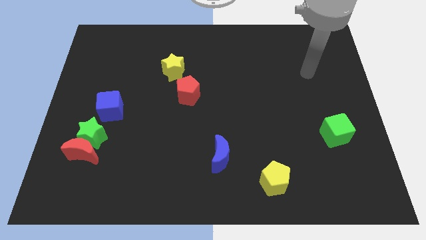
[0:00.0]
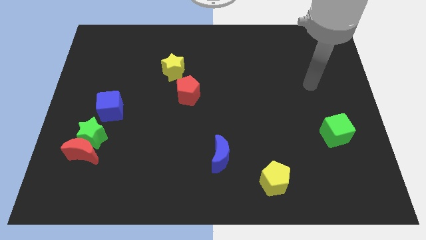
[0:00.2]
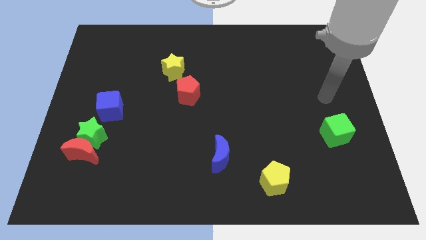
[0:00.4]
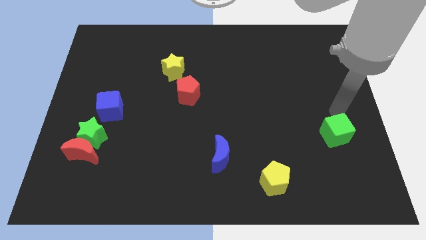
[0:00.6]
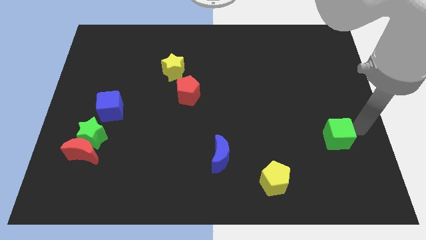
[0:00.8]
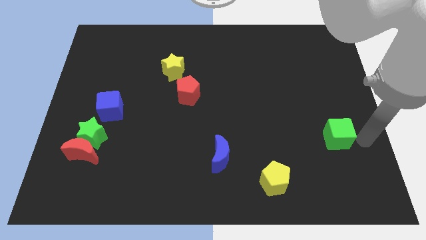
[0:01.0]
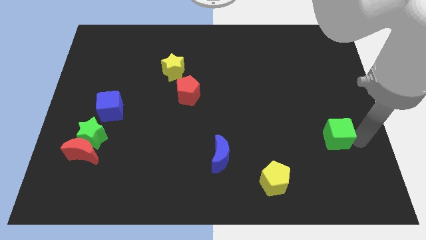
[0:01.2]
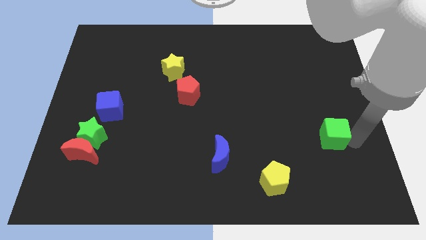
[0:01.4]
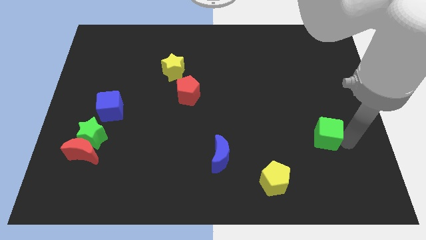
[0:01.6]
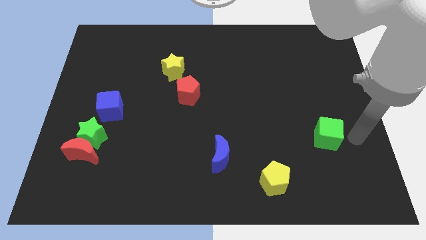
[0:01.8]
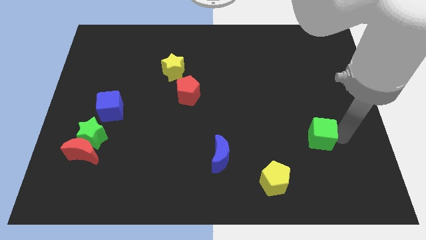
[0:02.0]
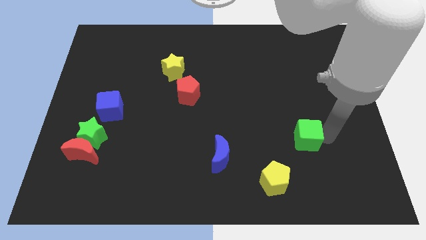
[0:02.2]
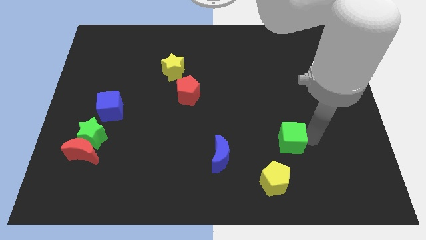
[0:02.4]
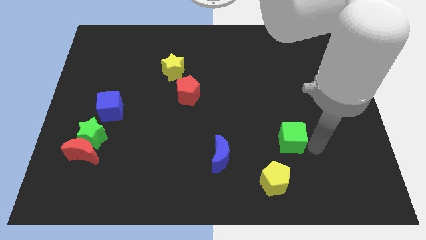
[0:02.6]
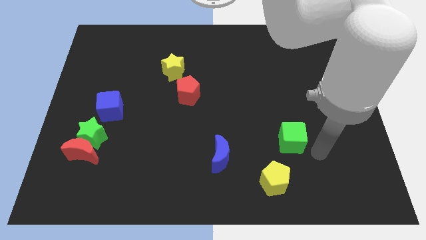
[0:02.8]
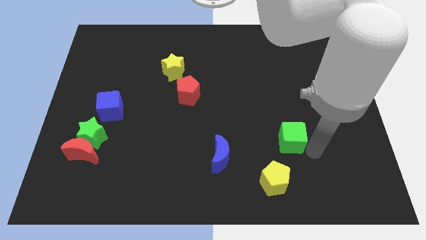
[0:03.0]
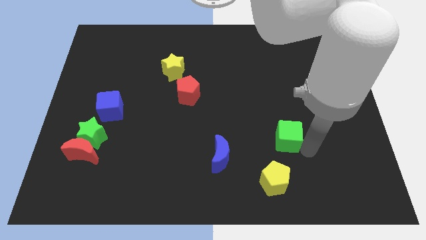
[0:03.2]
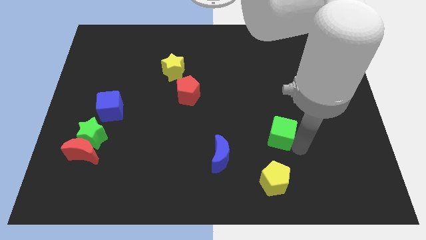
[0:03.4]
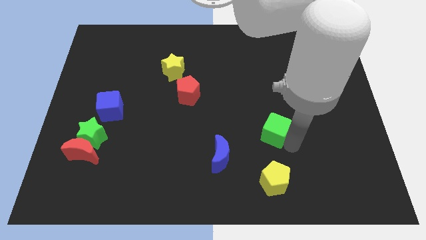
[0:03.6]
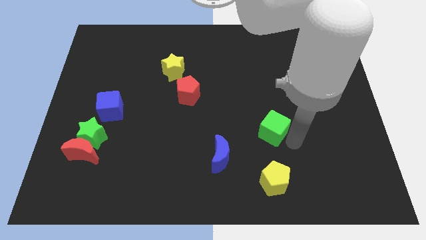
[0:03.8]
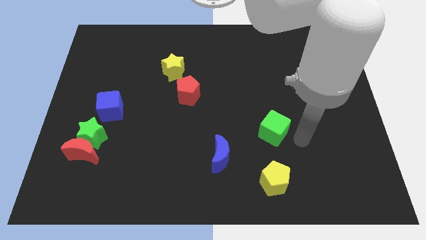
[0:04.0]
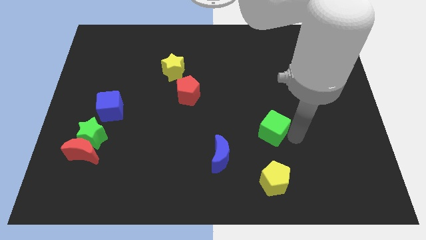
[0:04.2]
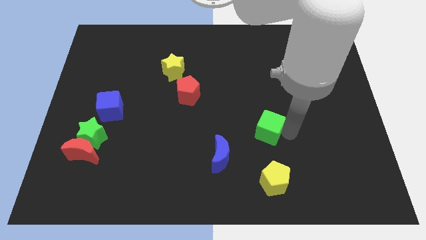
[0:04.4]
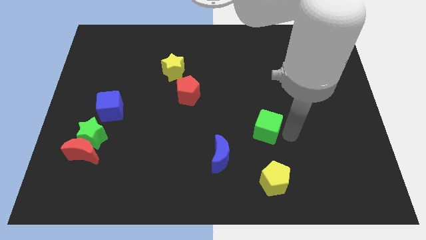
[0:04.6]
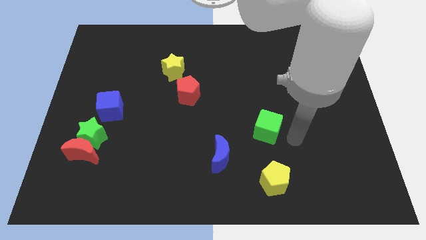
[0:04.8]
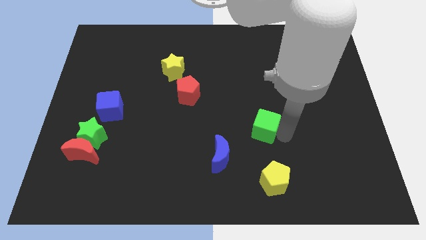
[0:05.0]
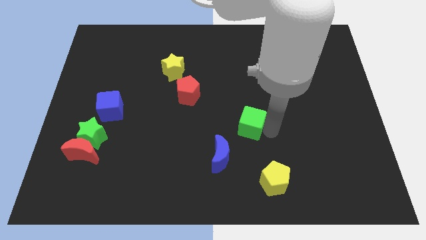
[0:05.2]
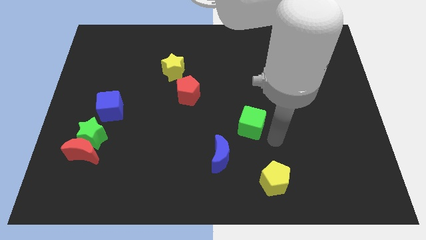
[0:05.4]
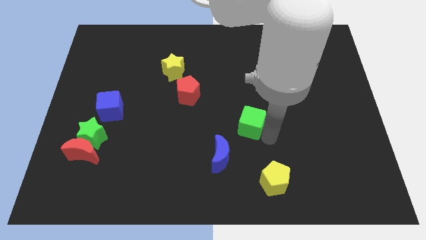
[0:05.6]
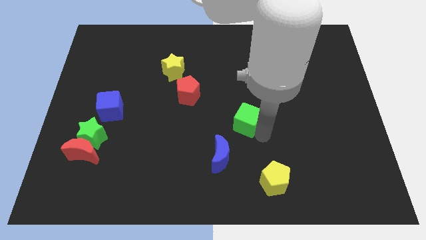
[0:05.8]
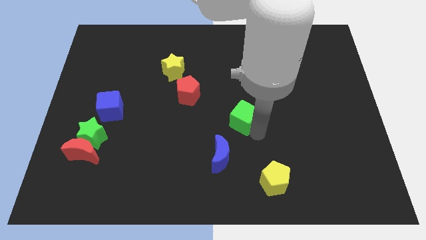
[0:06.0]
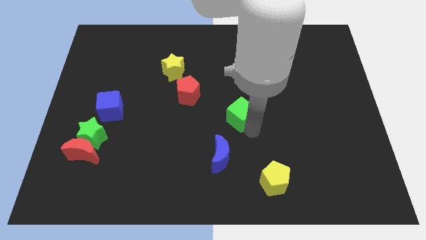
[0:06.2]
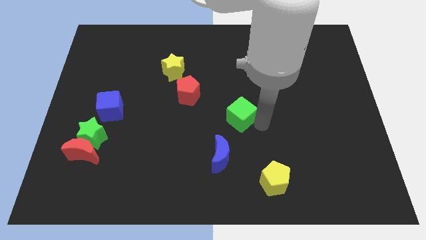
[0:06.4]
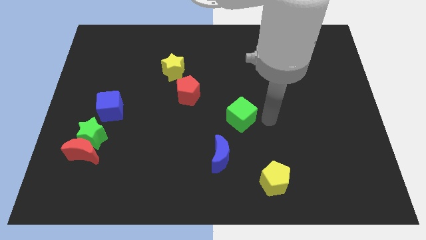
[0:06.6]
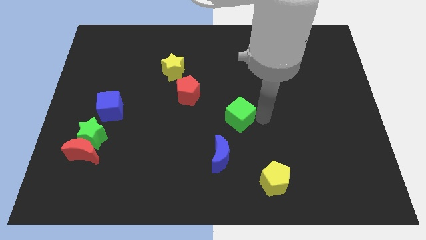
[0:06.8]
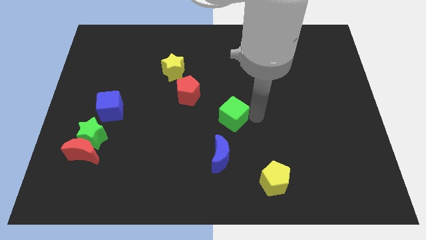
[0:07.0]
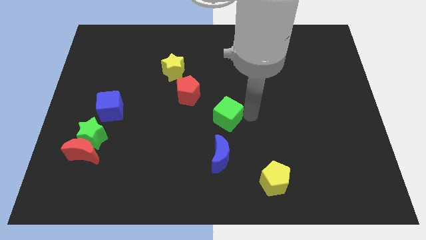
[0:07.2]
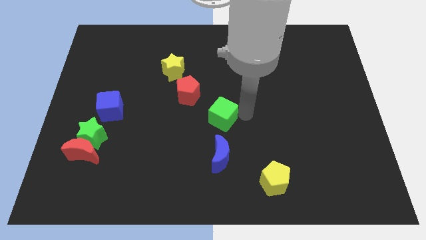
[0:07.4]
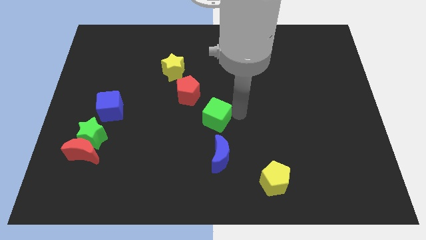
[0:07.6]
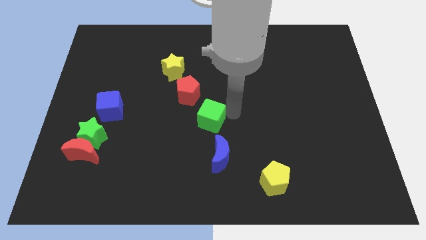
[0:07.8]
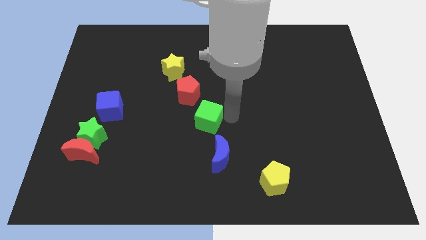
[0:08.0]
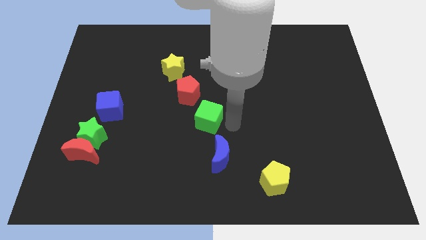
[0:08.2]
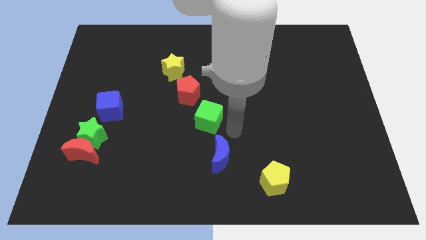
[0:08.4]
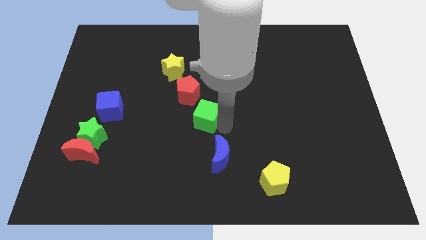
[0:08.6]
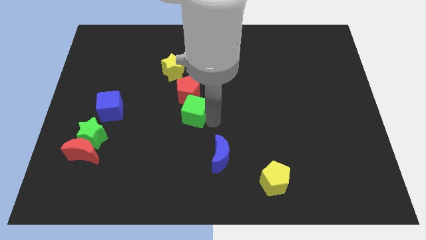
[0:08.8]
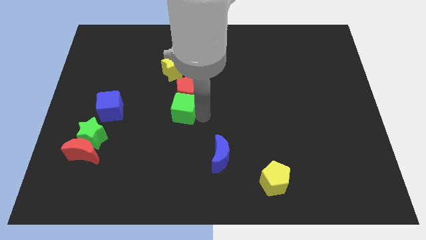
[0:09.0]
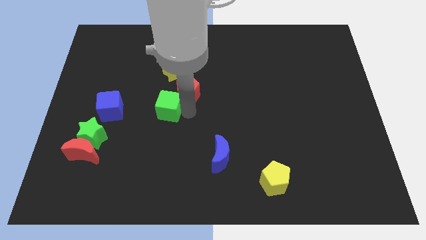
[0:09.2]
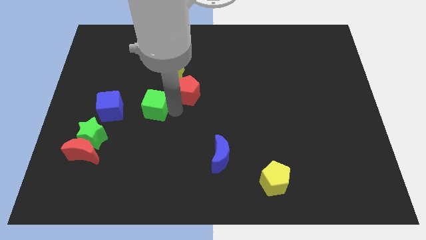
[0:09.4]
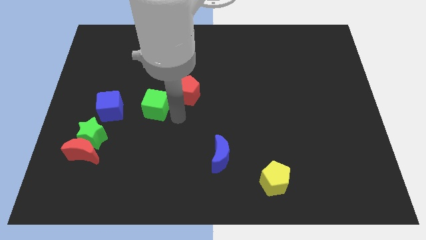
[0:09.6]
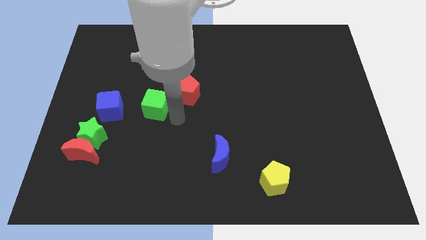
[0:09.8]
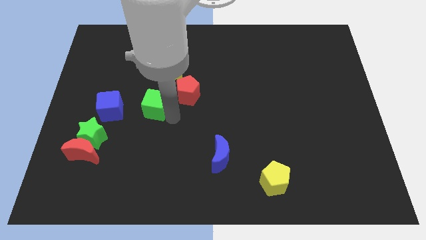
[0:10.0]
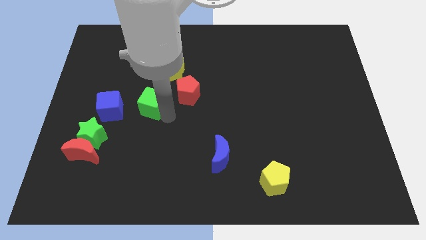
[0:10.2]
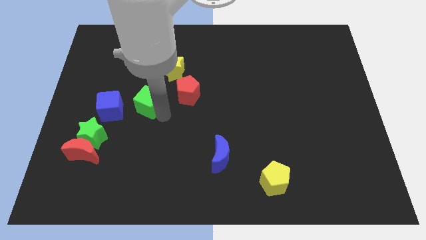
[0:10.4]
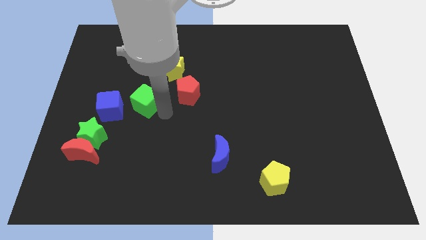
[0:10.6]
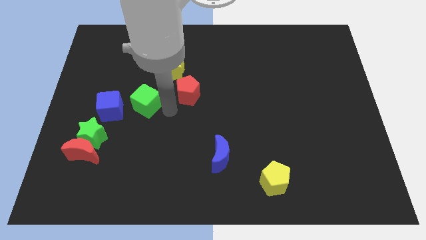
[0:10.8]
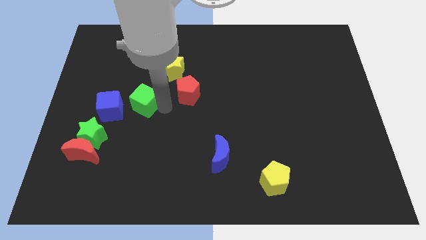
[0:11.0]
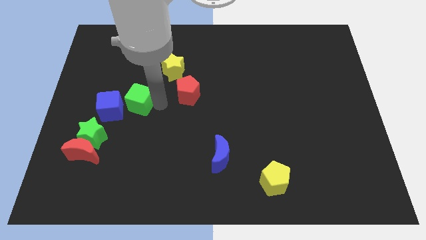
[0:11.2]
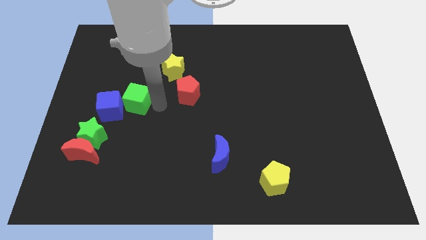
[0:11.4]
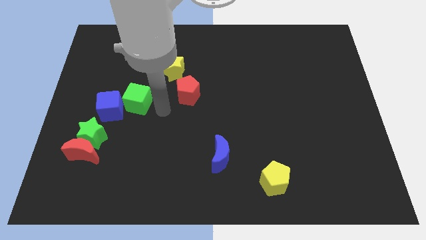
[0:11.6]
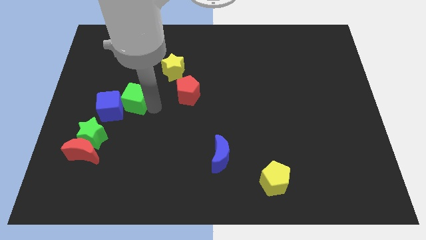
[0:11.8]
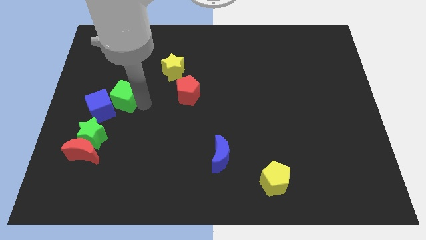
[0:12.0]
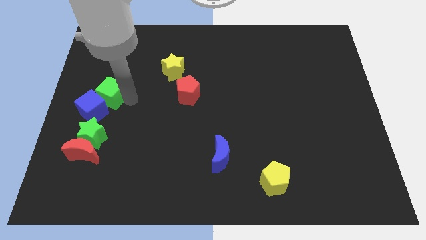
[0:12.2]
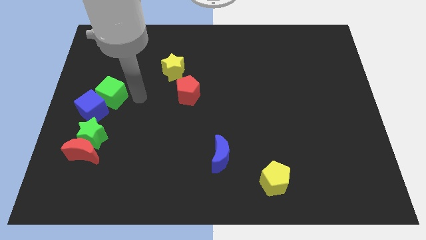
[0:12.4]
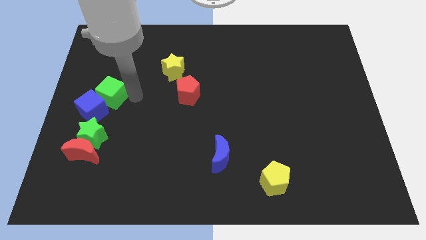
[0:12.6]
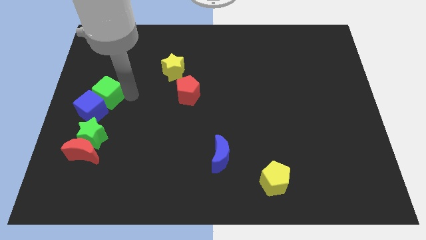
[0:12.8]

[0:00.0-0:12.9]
put the green cube to the center left

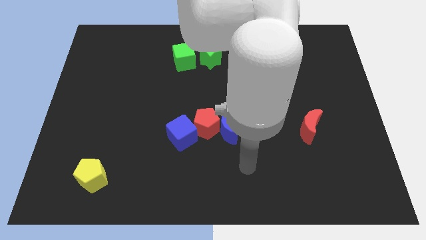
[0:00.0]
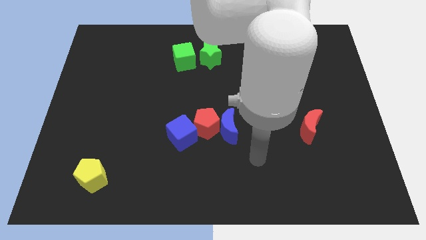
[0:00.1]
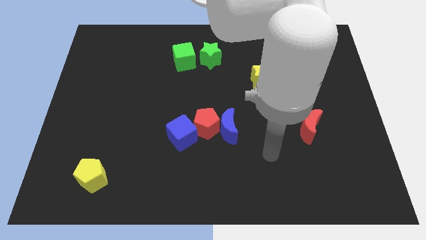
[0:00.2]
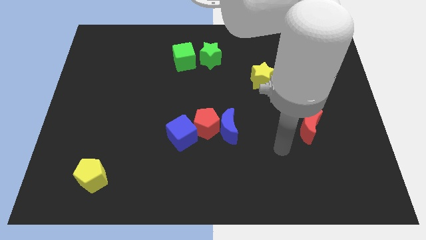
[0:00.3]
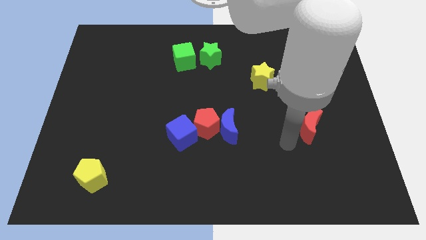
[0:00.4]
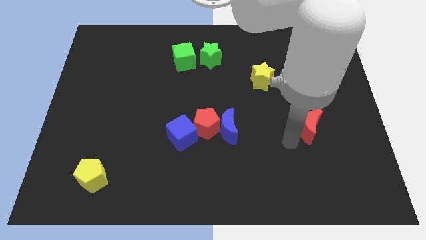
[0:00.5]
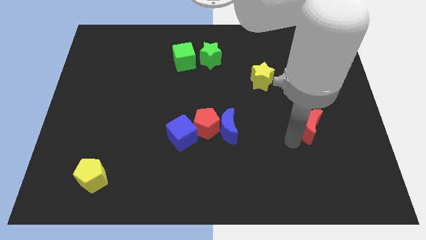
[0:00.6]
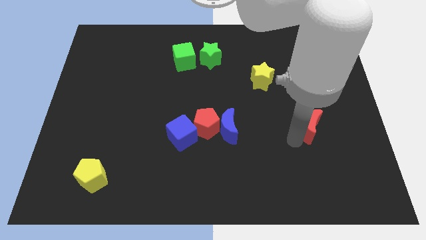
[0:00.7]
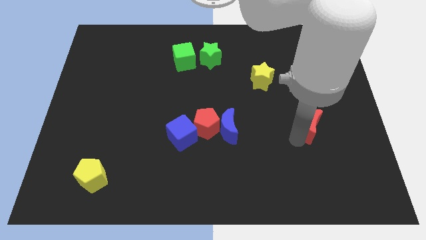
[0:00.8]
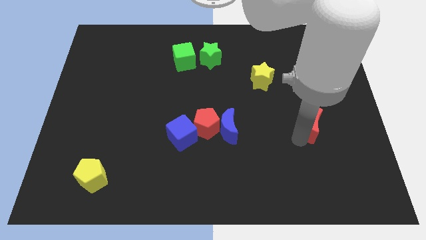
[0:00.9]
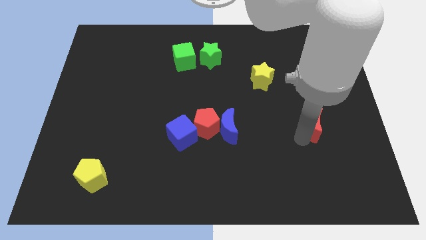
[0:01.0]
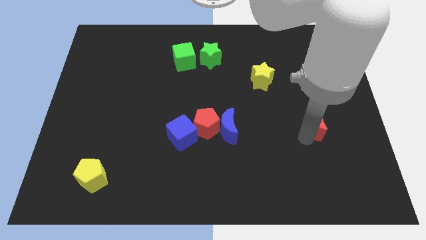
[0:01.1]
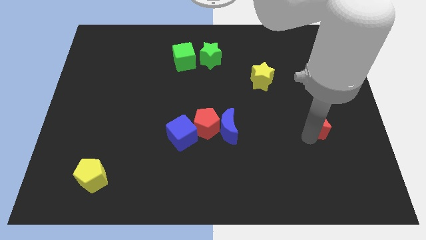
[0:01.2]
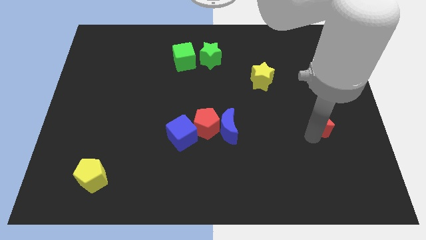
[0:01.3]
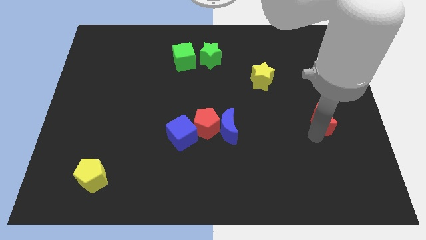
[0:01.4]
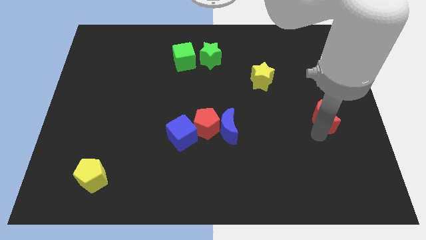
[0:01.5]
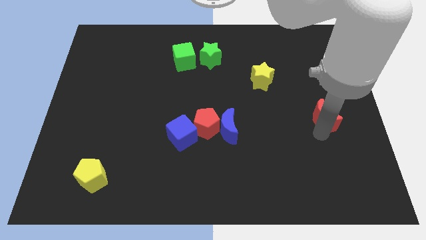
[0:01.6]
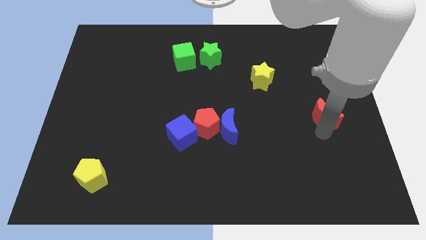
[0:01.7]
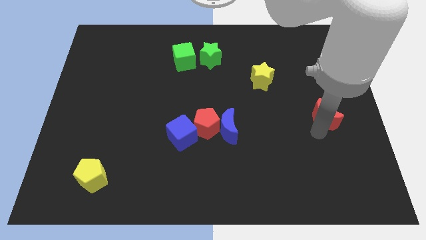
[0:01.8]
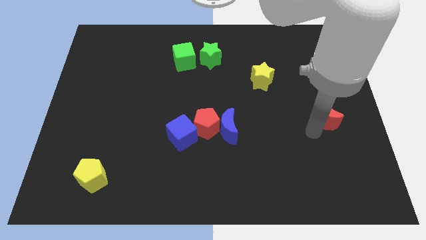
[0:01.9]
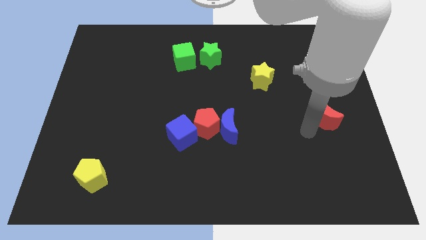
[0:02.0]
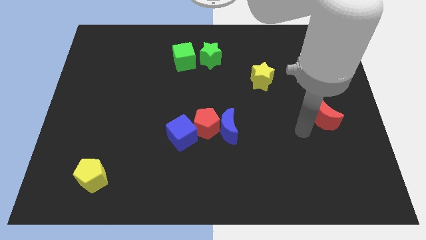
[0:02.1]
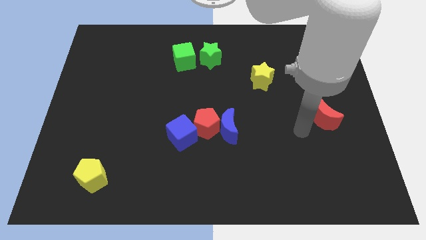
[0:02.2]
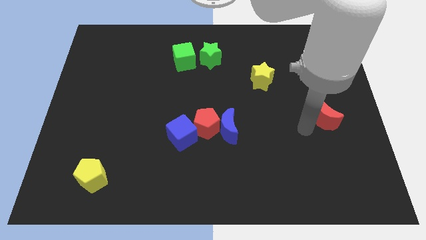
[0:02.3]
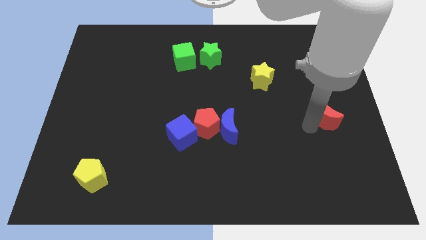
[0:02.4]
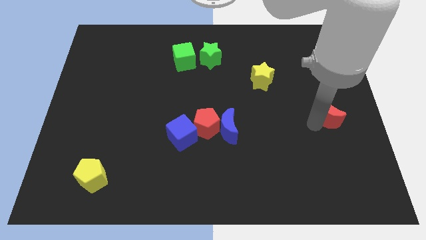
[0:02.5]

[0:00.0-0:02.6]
put the red moon to the right side
